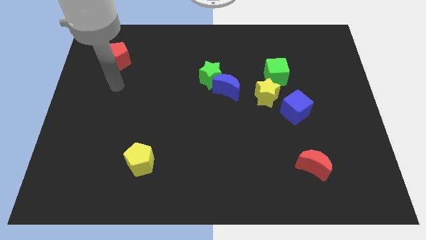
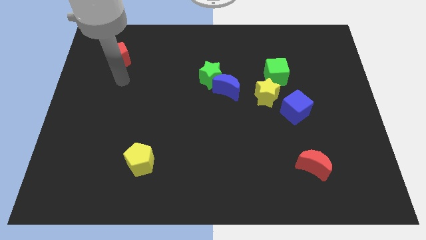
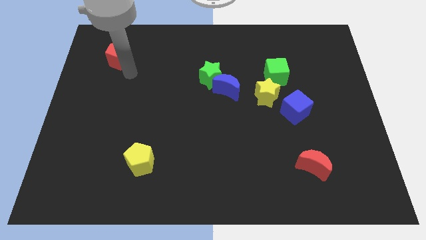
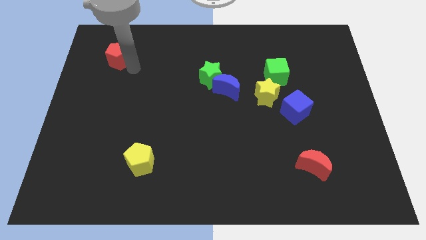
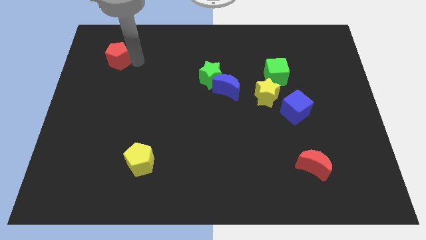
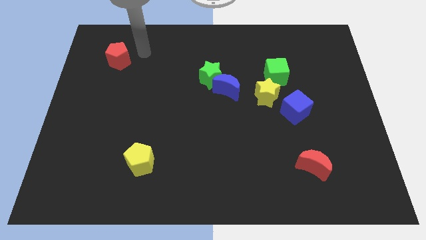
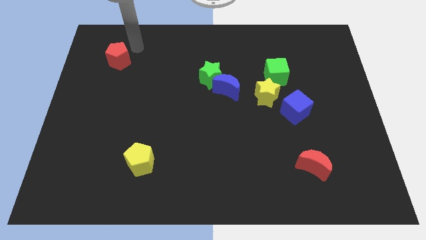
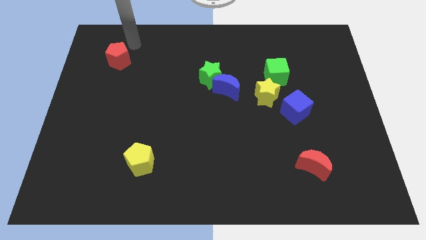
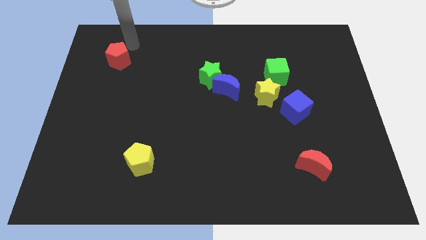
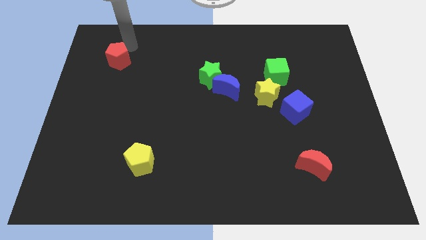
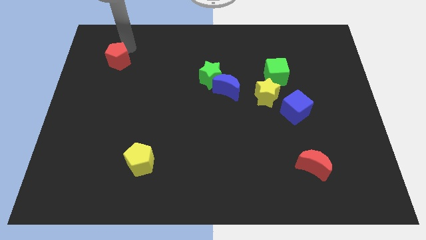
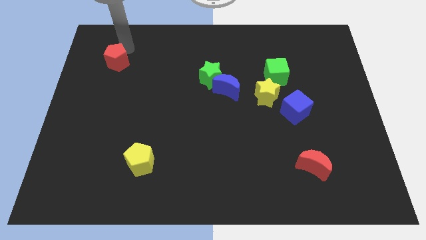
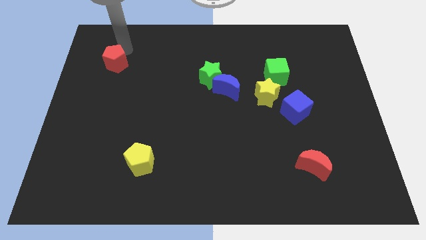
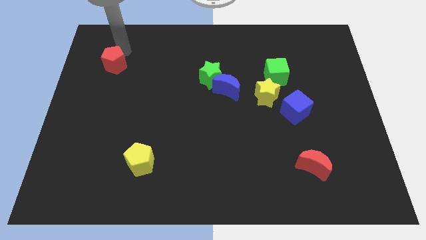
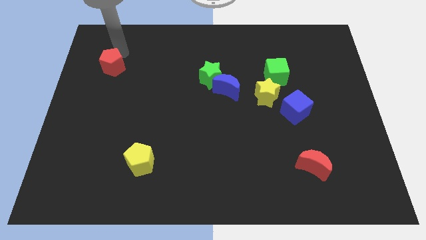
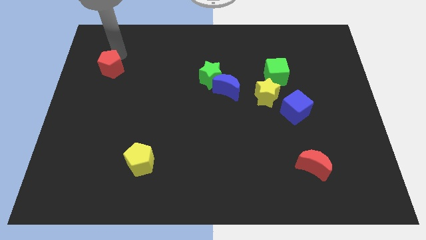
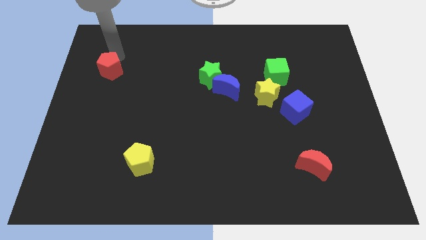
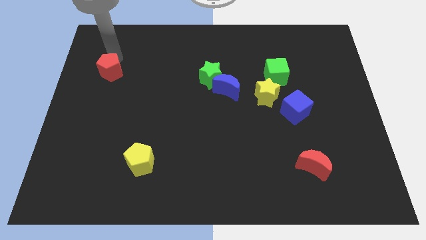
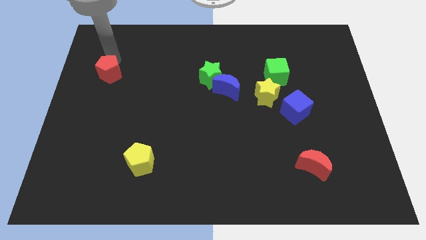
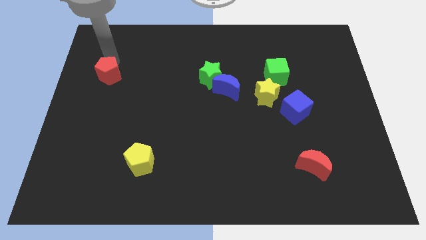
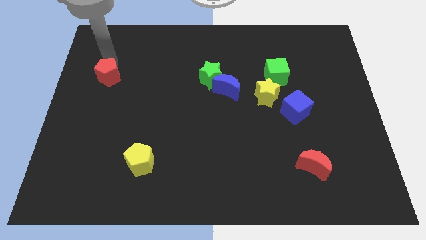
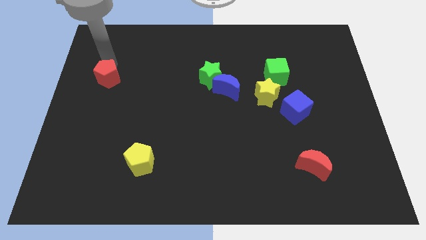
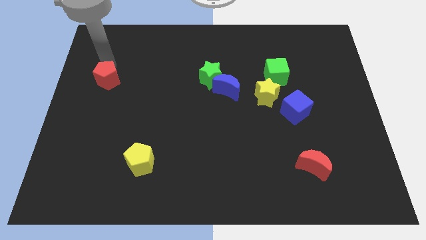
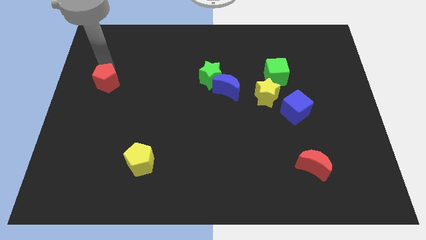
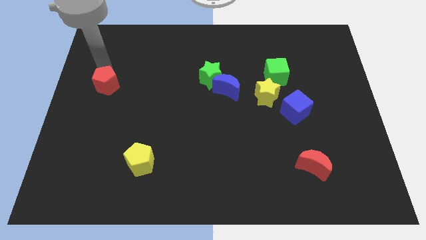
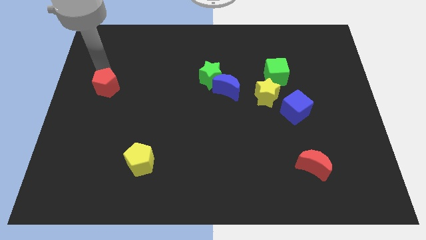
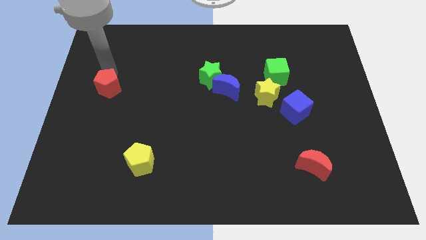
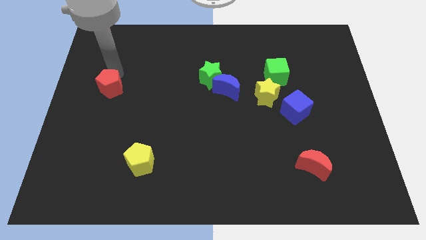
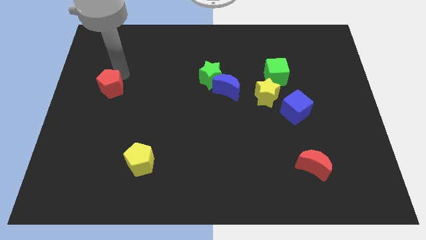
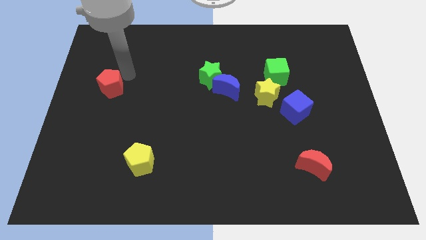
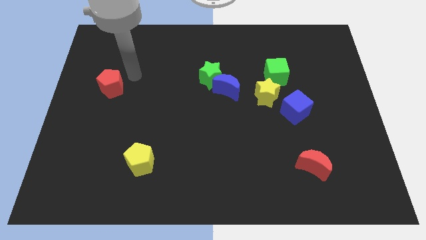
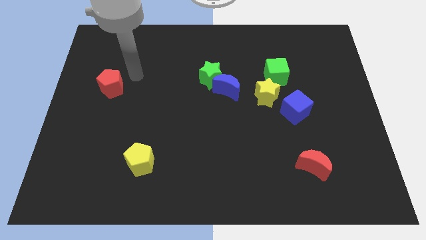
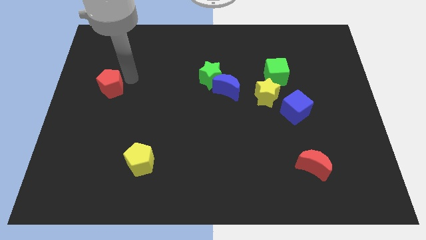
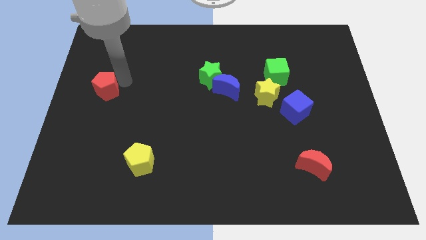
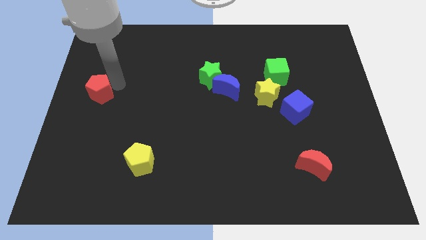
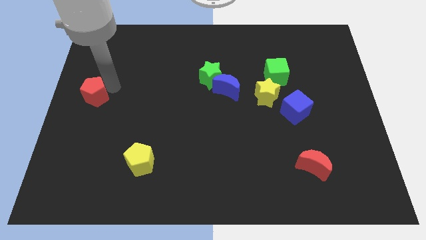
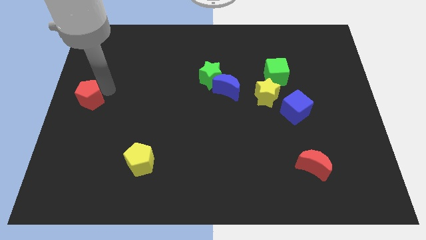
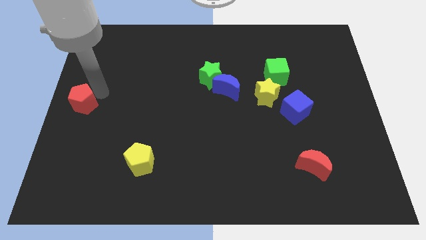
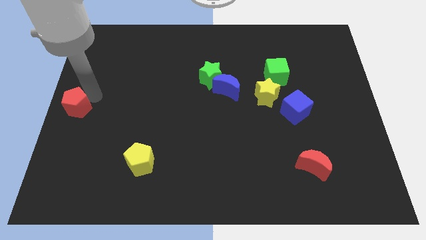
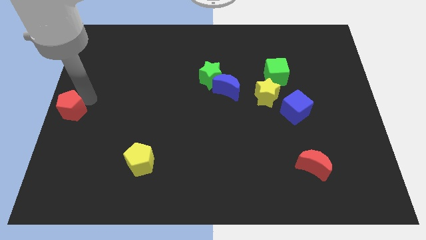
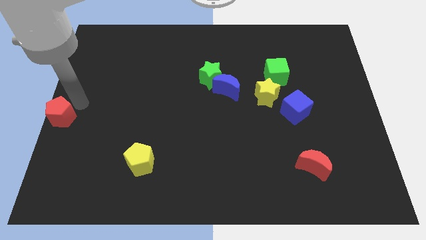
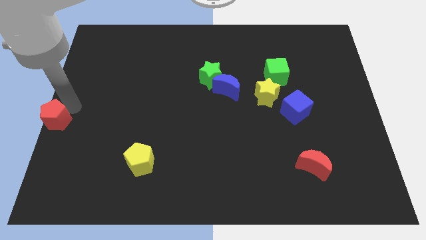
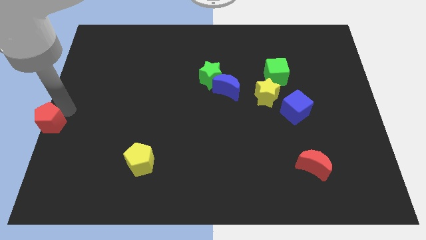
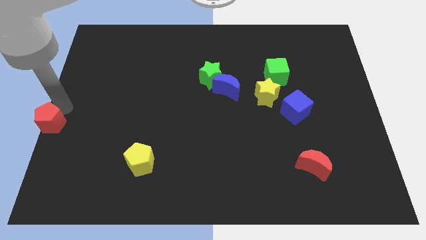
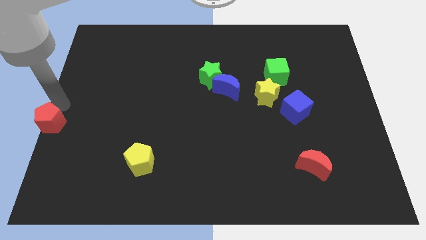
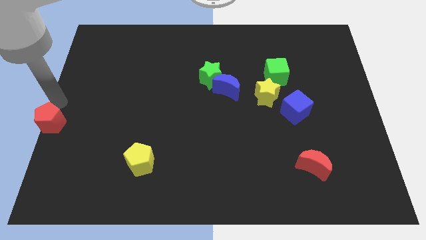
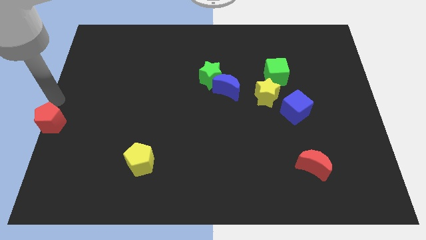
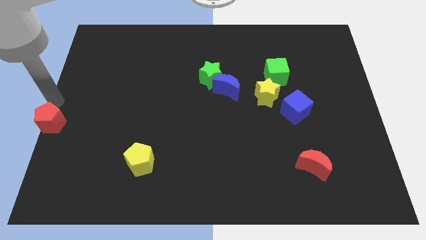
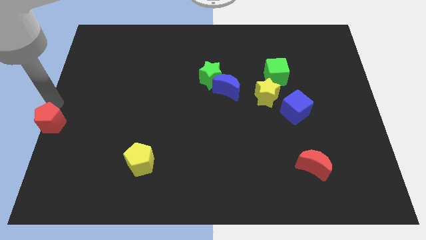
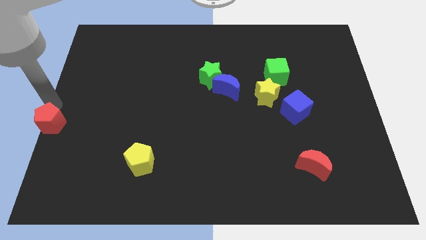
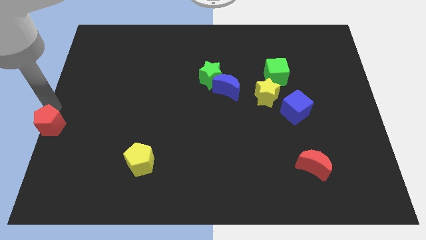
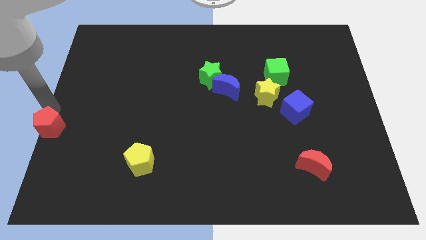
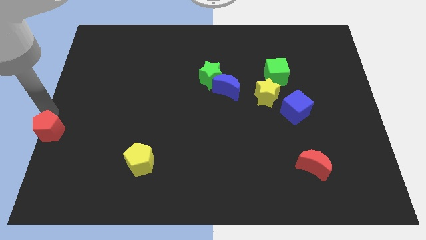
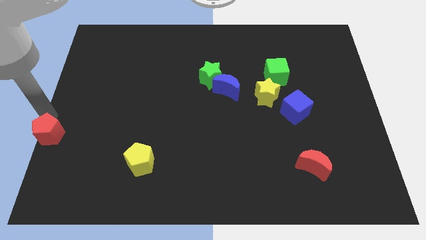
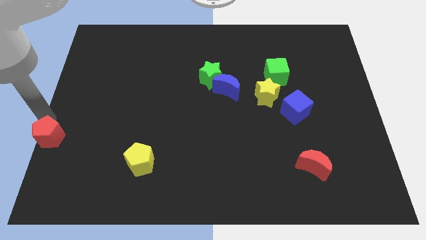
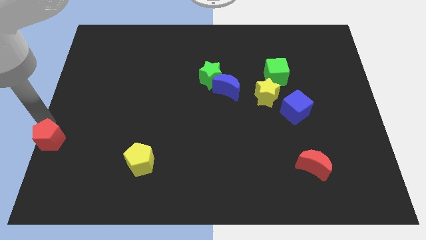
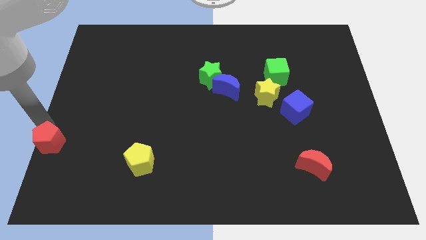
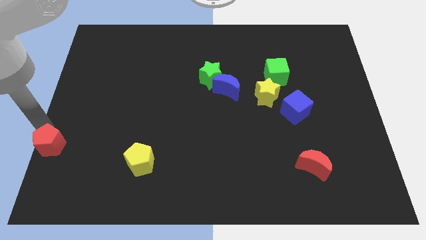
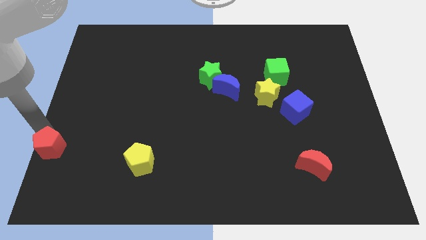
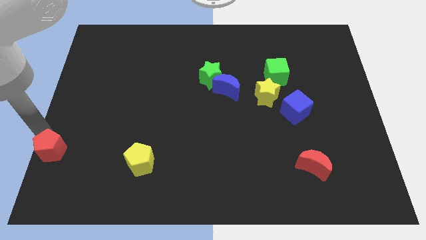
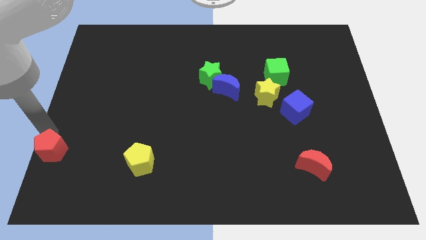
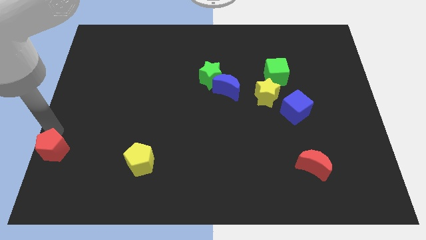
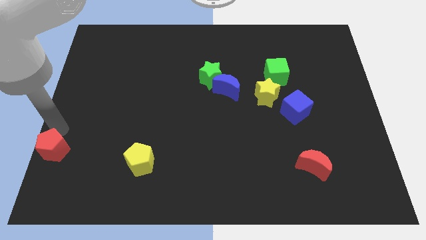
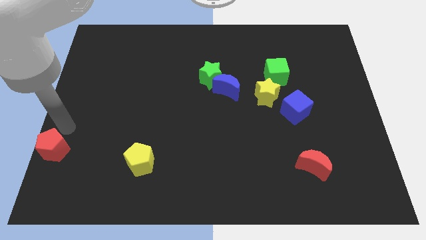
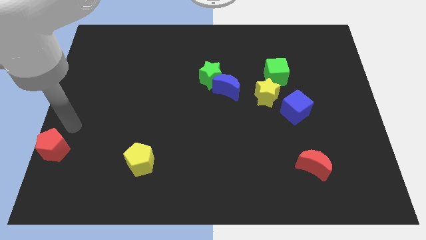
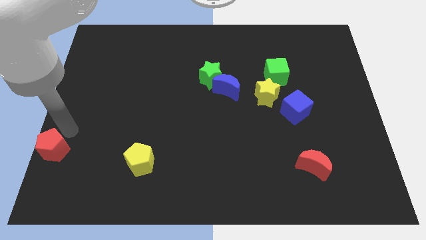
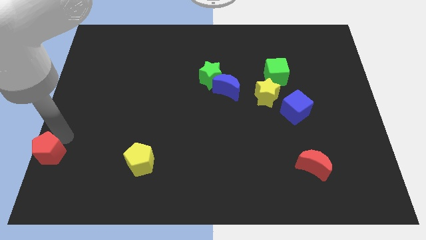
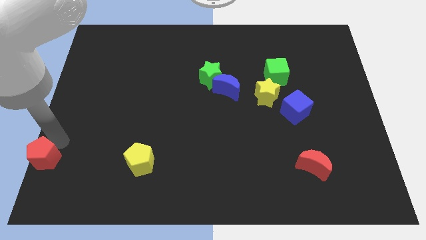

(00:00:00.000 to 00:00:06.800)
slide the red pentagon to the bottom left of the board
